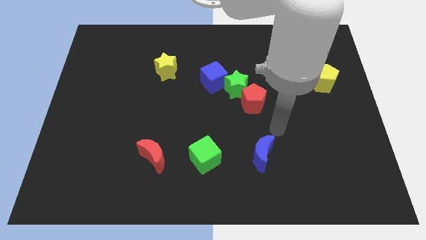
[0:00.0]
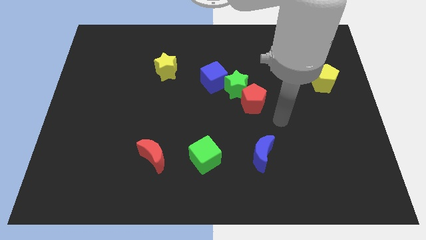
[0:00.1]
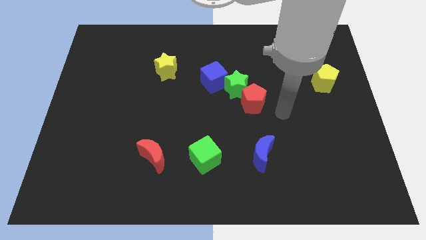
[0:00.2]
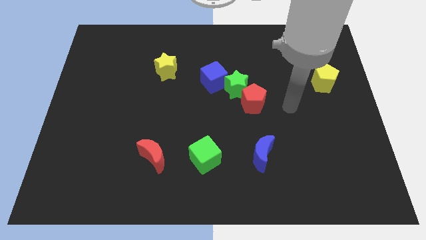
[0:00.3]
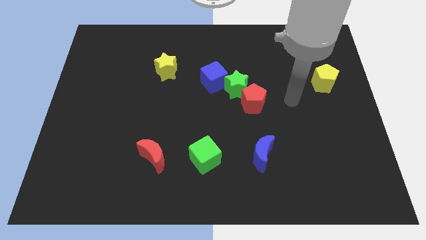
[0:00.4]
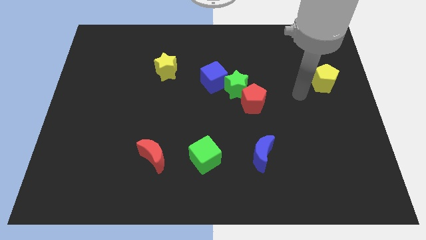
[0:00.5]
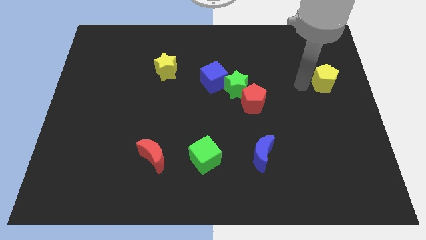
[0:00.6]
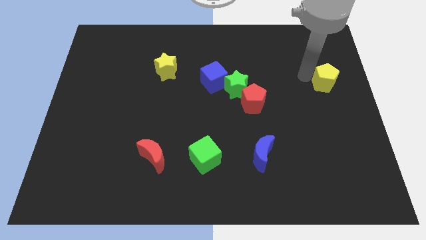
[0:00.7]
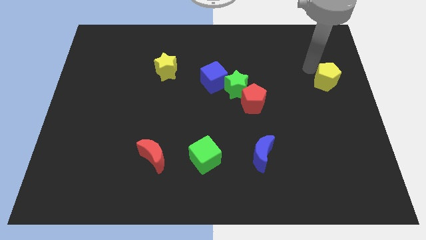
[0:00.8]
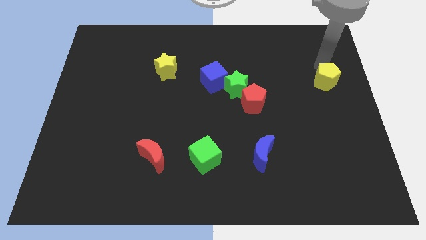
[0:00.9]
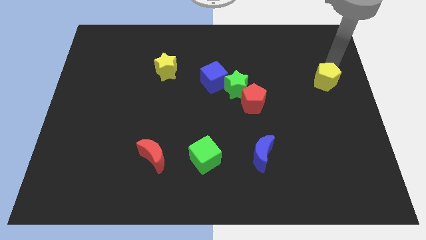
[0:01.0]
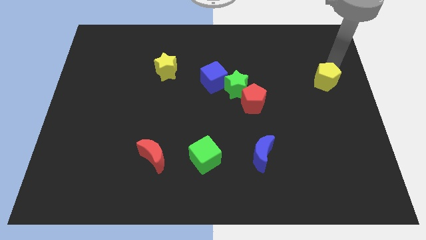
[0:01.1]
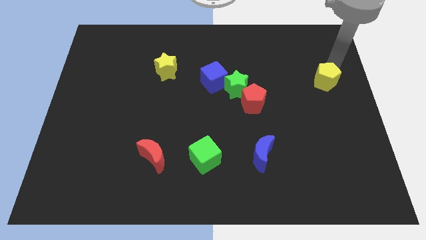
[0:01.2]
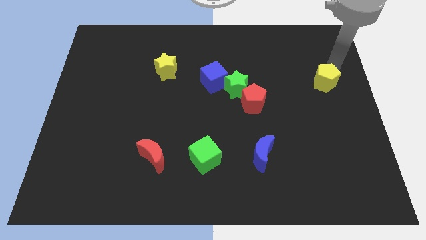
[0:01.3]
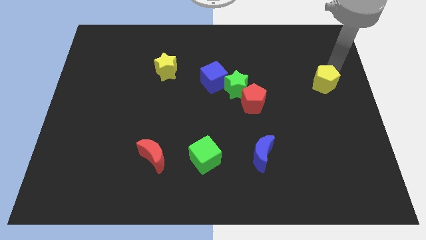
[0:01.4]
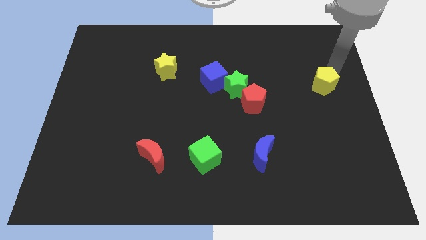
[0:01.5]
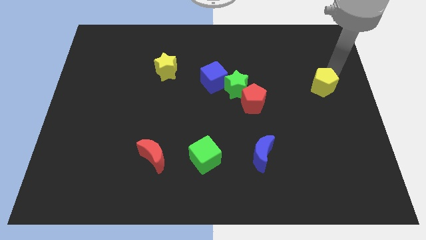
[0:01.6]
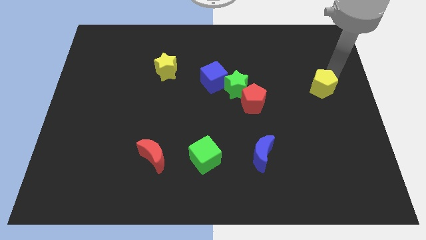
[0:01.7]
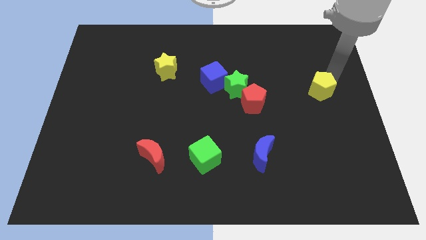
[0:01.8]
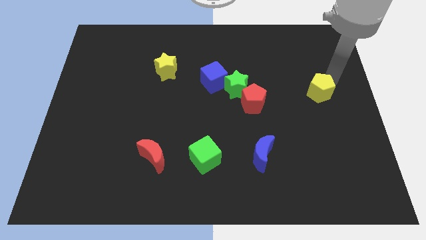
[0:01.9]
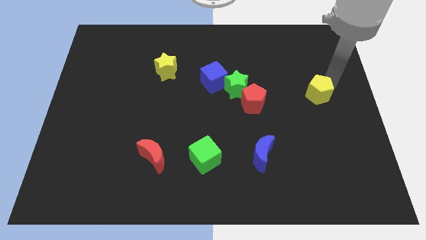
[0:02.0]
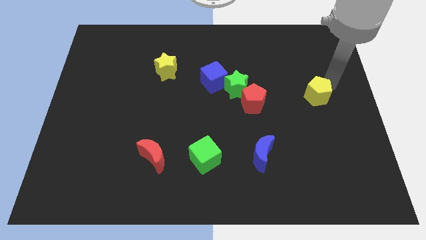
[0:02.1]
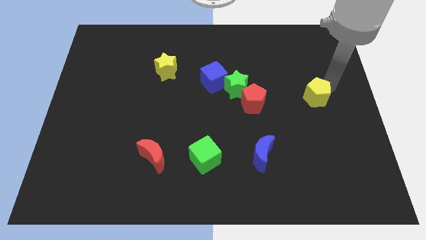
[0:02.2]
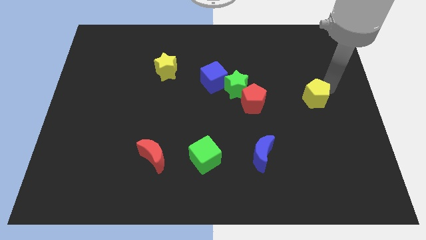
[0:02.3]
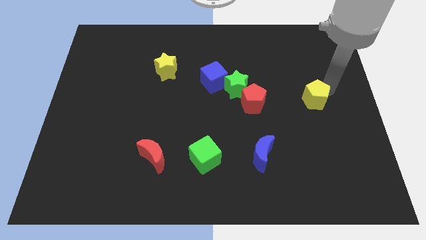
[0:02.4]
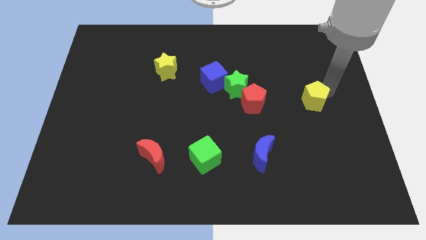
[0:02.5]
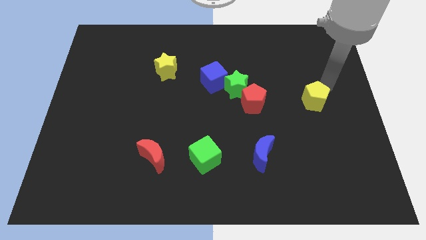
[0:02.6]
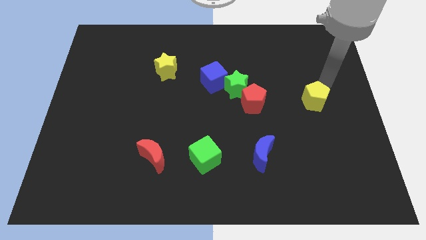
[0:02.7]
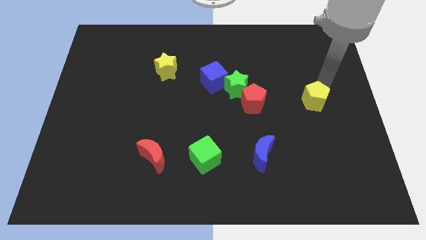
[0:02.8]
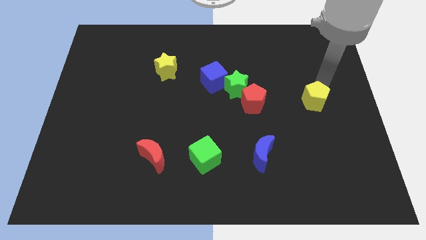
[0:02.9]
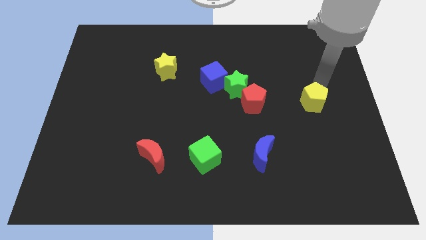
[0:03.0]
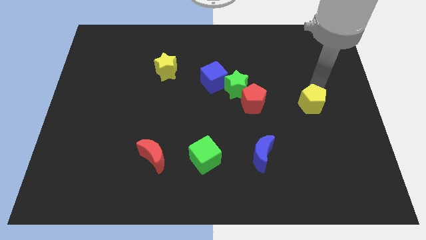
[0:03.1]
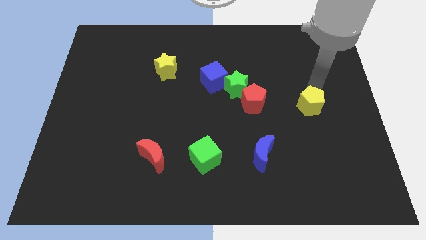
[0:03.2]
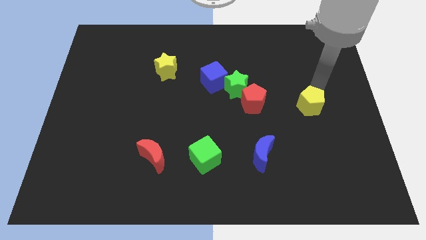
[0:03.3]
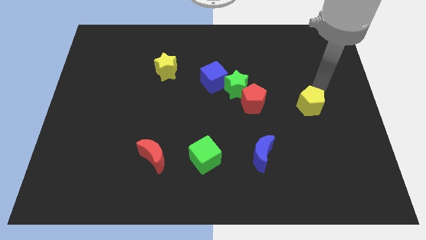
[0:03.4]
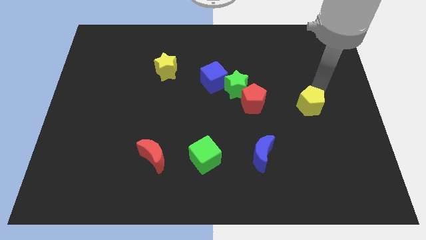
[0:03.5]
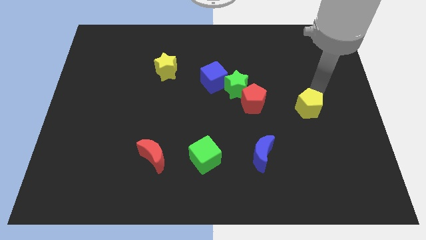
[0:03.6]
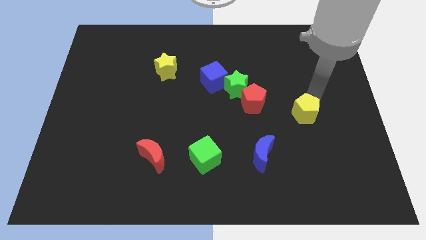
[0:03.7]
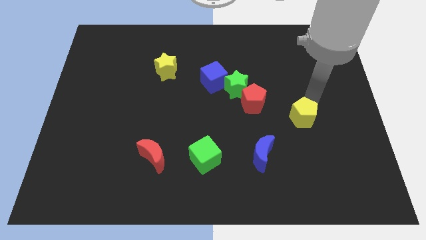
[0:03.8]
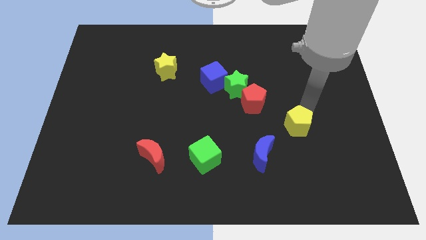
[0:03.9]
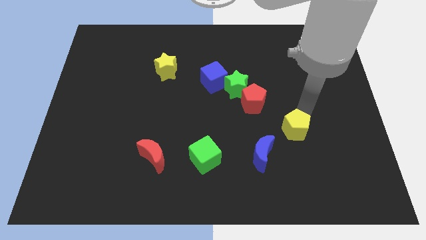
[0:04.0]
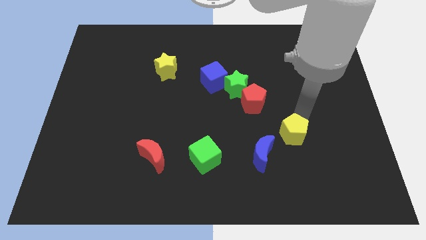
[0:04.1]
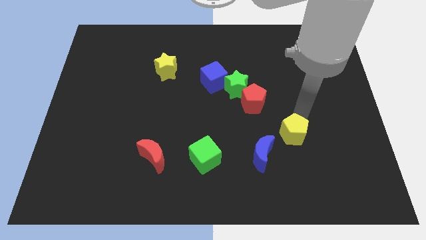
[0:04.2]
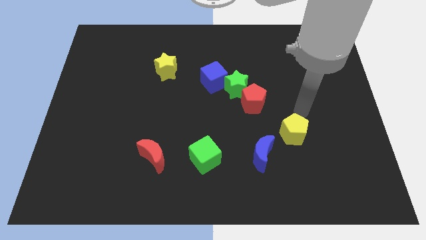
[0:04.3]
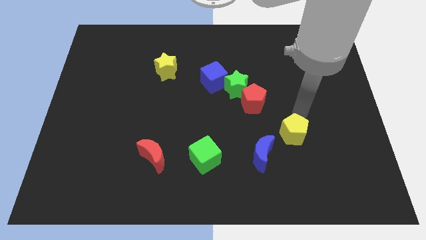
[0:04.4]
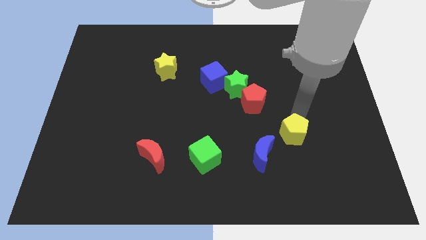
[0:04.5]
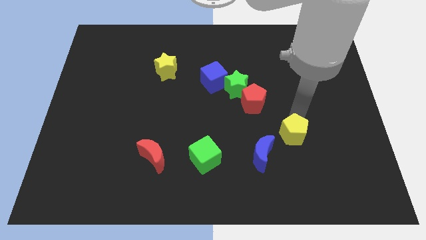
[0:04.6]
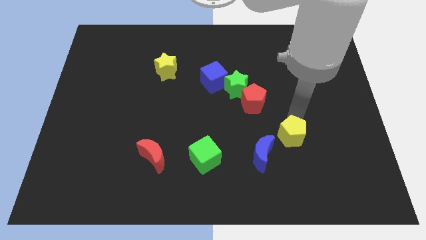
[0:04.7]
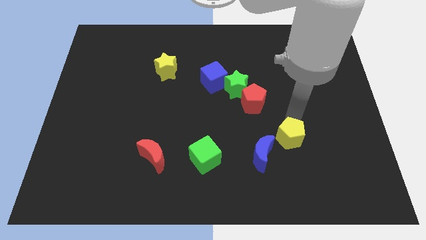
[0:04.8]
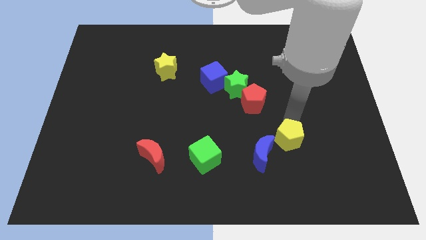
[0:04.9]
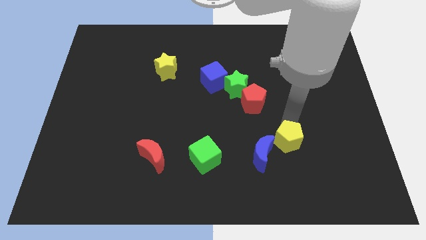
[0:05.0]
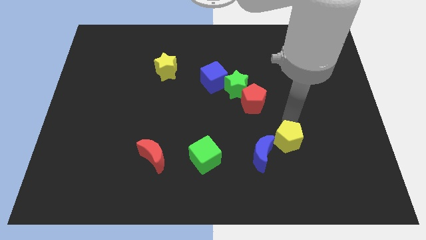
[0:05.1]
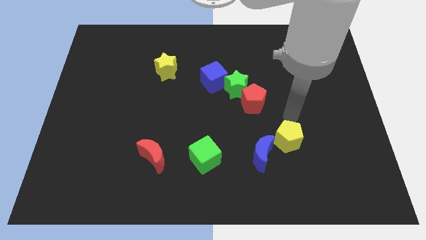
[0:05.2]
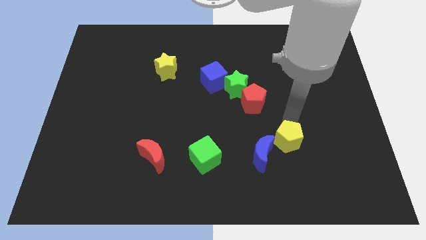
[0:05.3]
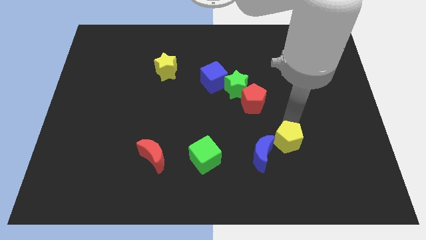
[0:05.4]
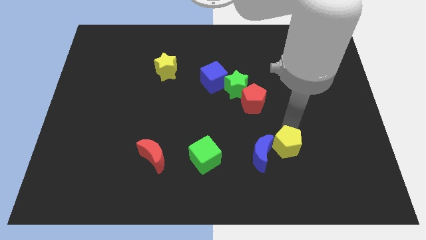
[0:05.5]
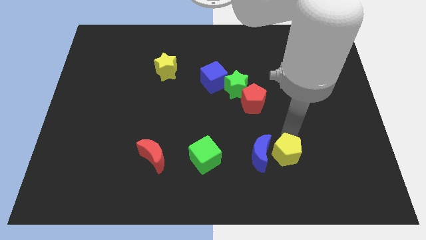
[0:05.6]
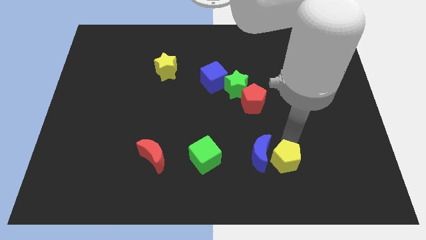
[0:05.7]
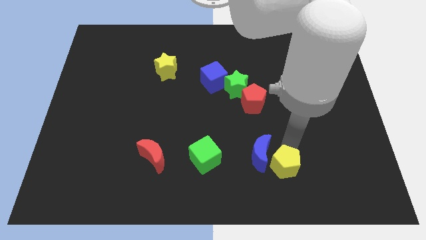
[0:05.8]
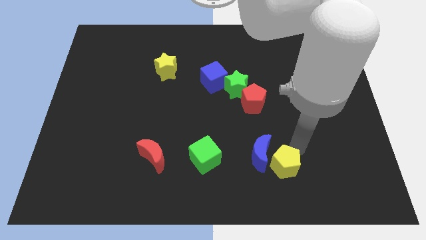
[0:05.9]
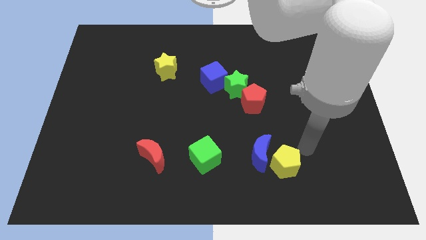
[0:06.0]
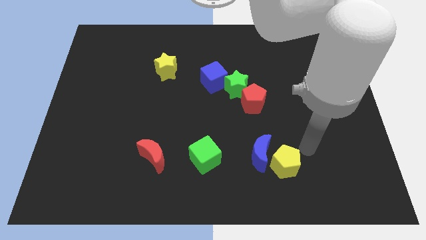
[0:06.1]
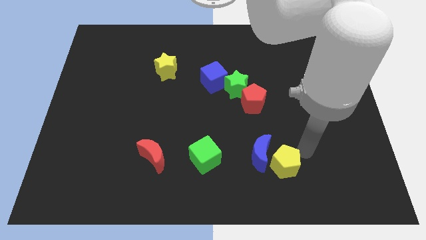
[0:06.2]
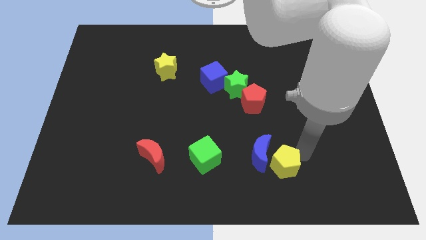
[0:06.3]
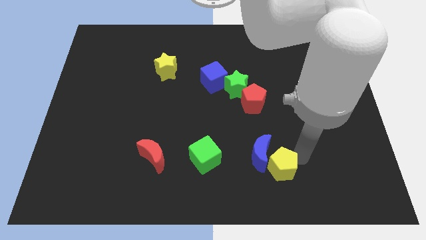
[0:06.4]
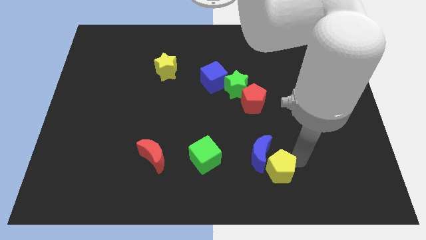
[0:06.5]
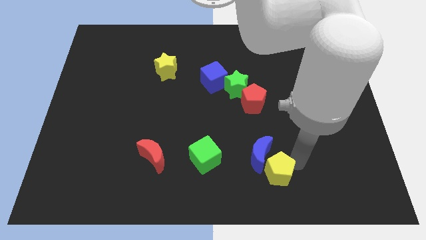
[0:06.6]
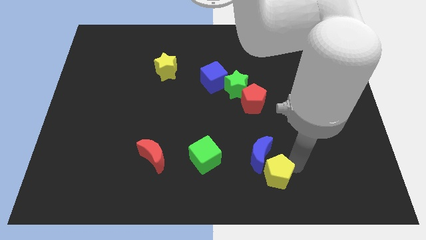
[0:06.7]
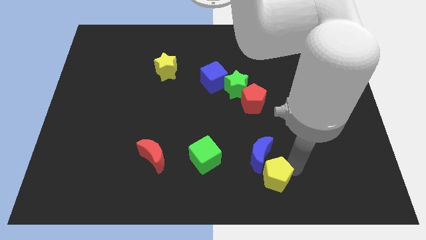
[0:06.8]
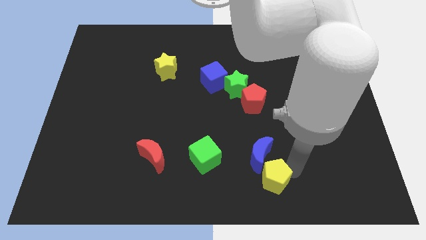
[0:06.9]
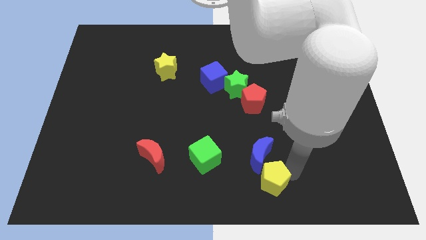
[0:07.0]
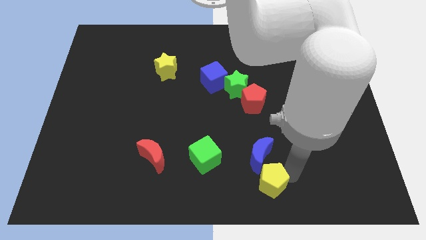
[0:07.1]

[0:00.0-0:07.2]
push the yellow pentagon to the bottom side
